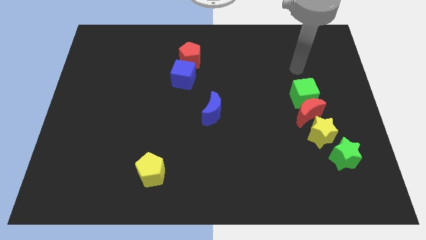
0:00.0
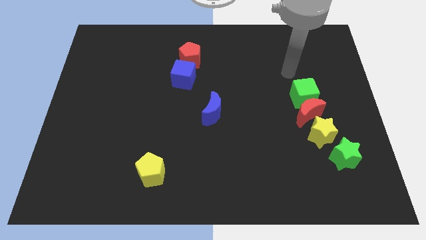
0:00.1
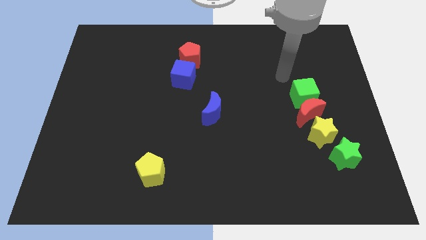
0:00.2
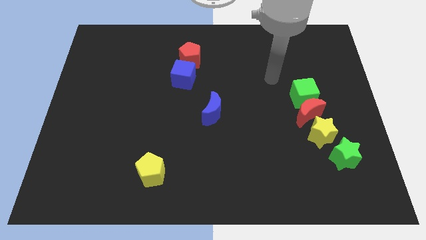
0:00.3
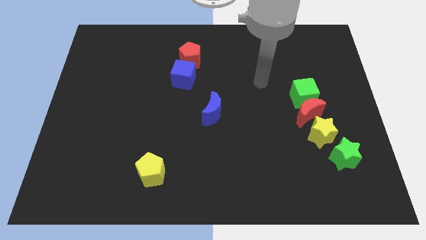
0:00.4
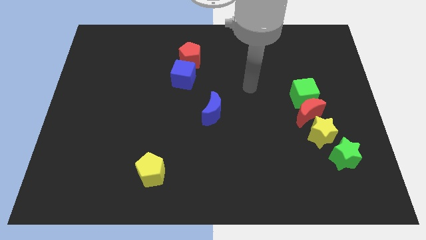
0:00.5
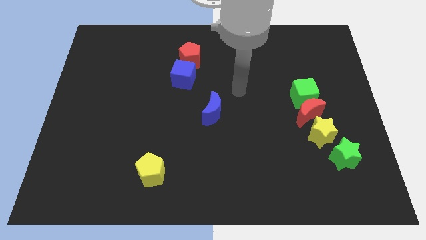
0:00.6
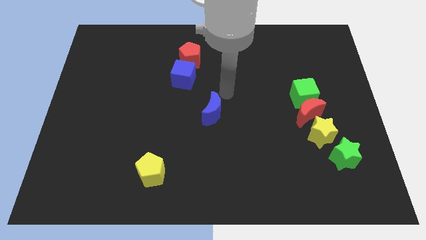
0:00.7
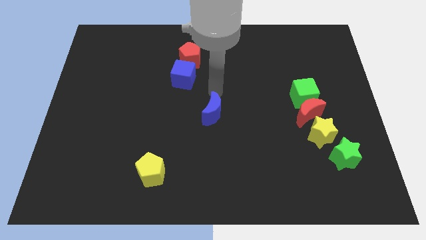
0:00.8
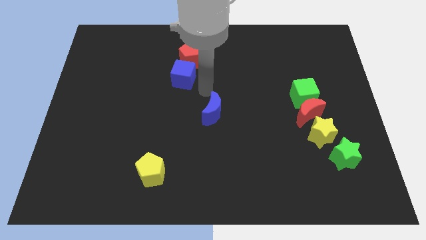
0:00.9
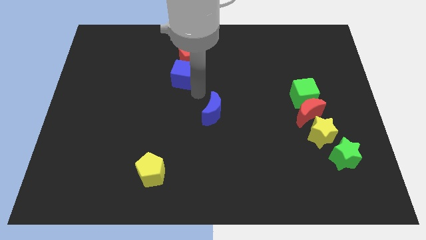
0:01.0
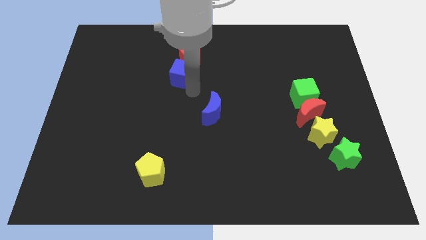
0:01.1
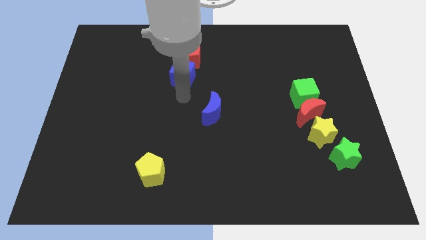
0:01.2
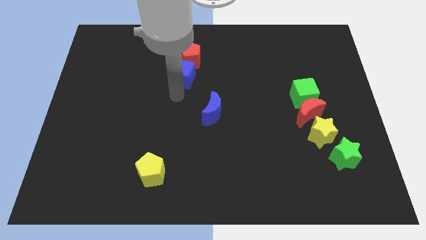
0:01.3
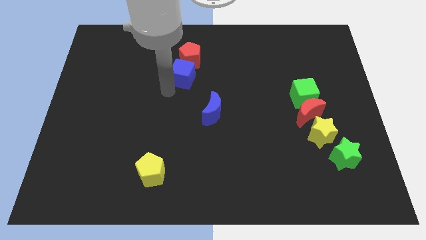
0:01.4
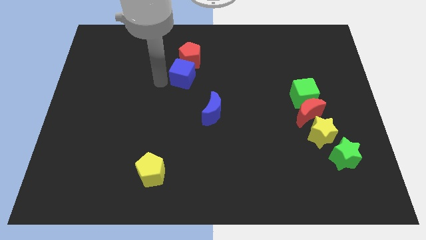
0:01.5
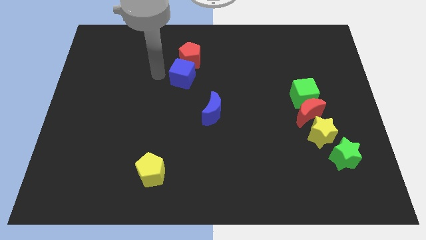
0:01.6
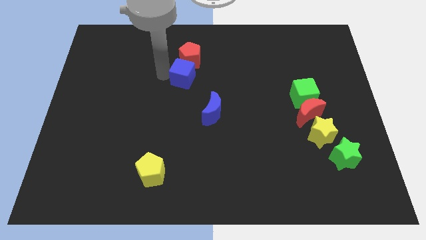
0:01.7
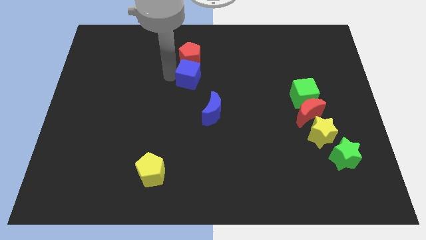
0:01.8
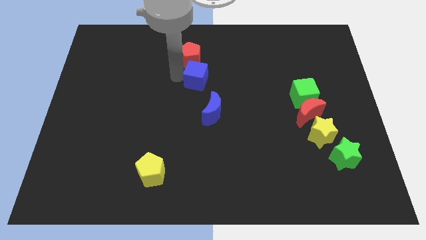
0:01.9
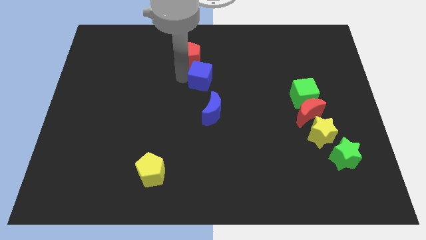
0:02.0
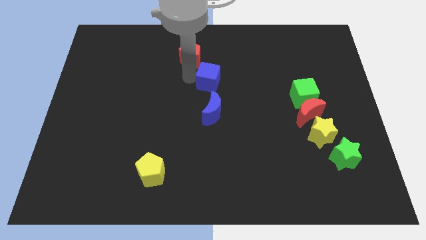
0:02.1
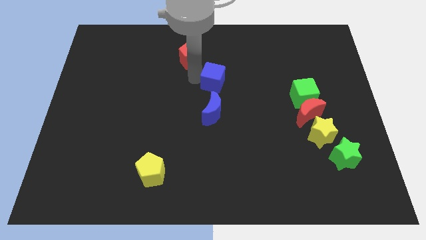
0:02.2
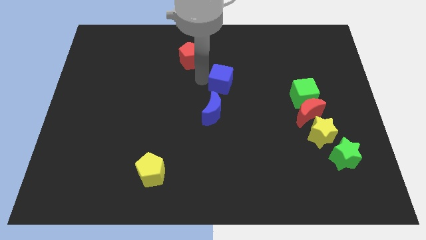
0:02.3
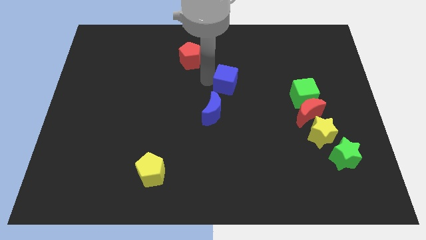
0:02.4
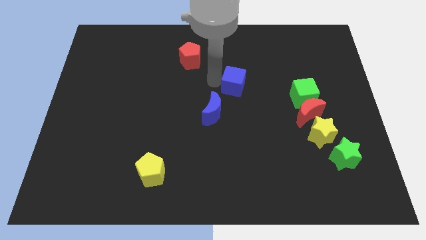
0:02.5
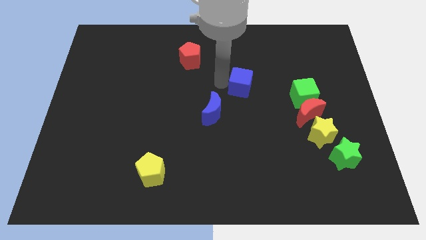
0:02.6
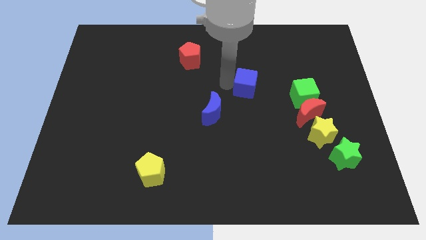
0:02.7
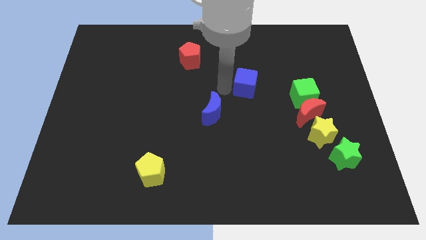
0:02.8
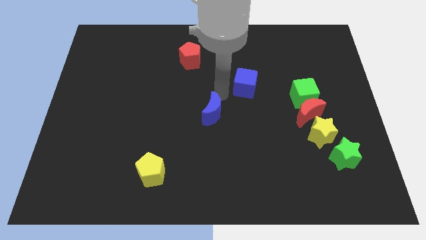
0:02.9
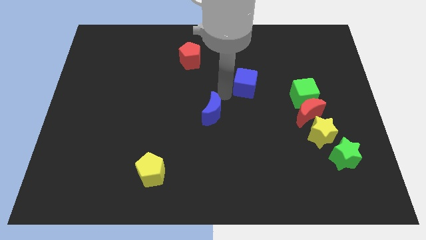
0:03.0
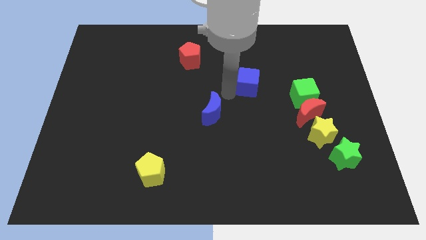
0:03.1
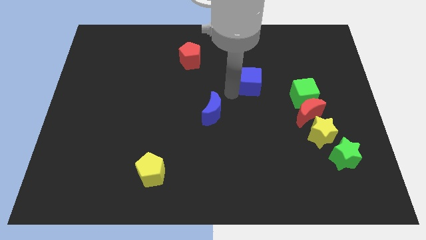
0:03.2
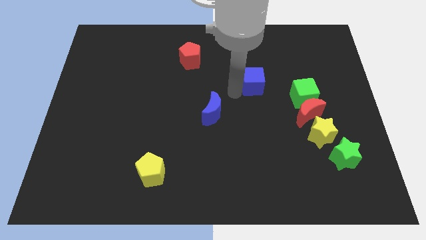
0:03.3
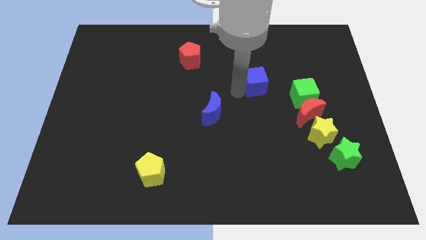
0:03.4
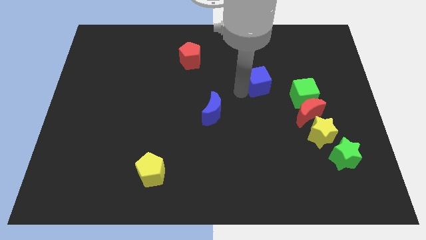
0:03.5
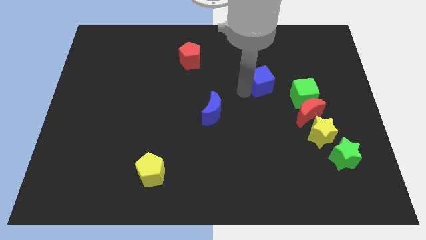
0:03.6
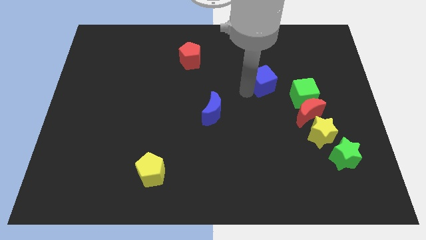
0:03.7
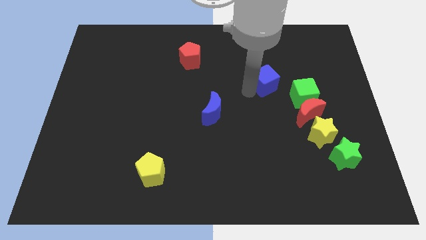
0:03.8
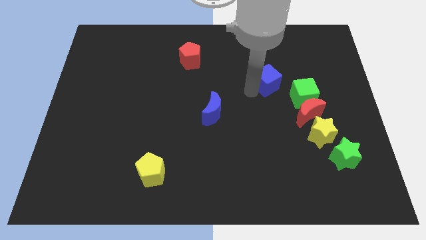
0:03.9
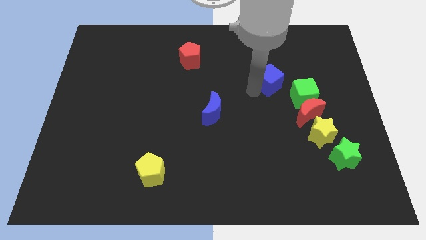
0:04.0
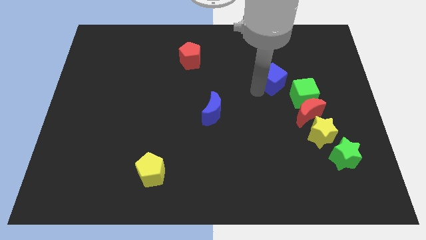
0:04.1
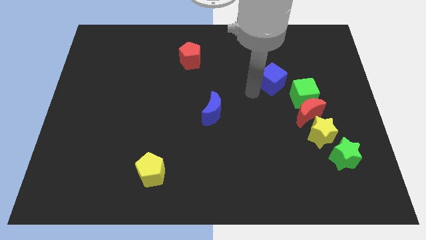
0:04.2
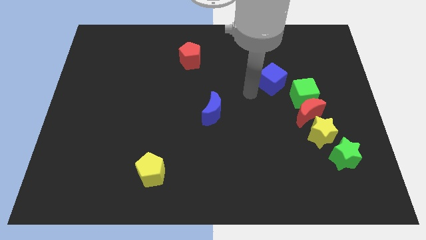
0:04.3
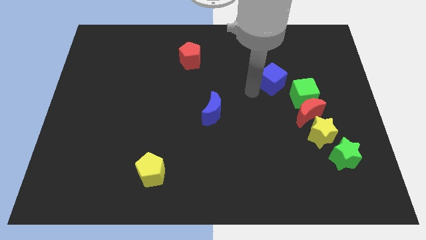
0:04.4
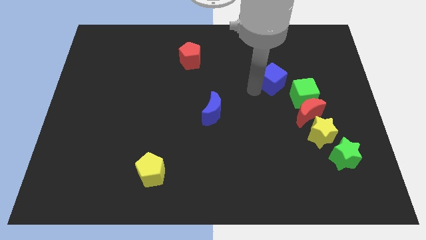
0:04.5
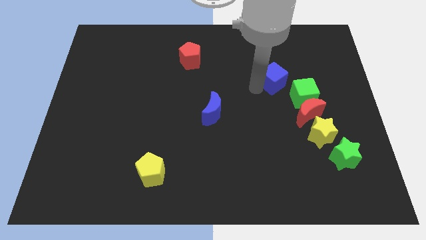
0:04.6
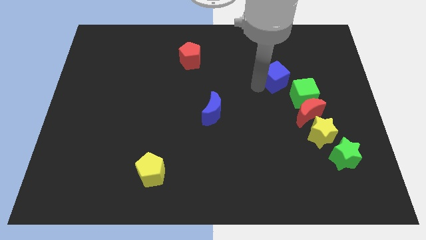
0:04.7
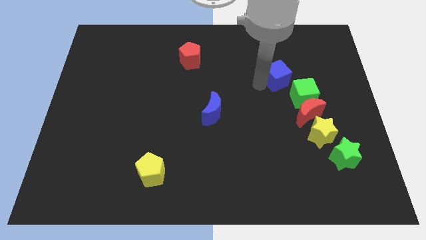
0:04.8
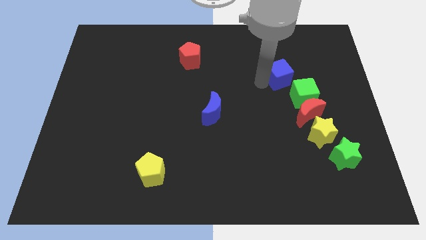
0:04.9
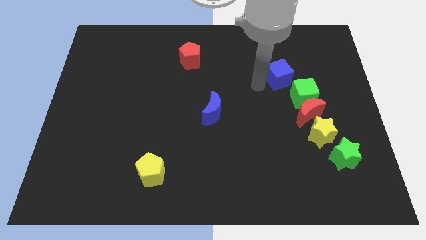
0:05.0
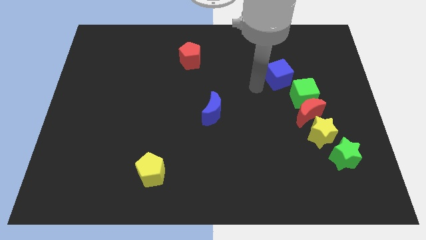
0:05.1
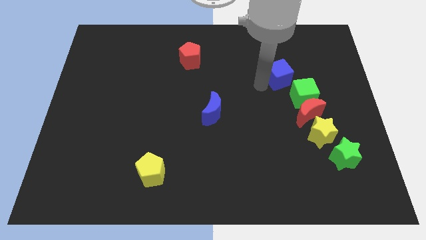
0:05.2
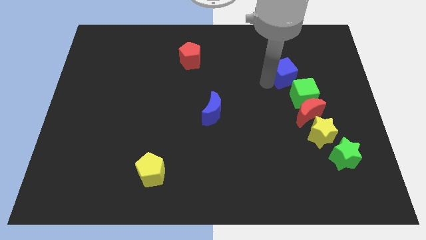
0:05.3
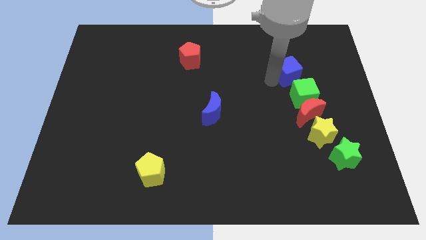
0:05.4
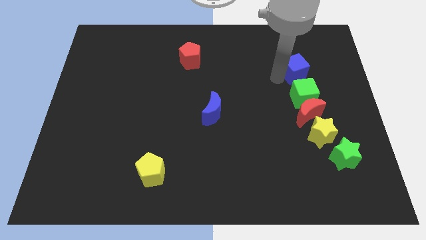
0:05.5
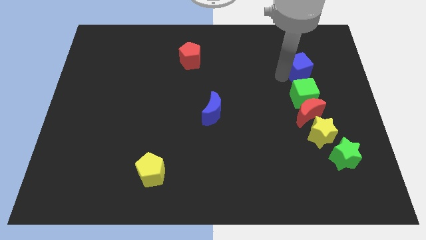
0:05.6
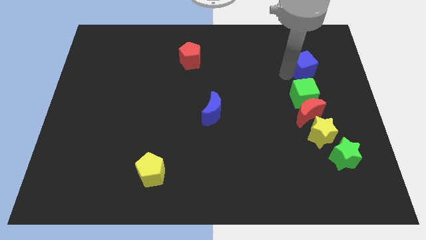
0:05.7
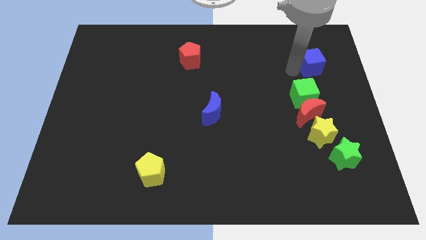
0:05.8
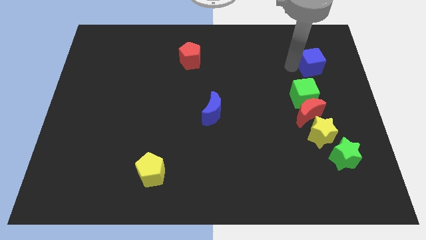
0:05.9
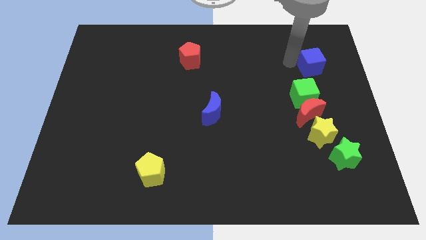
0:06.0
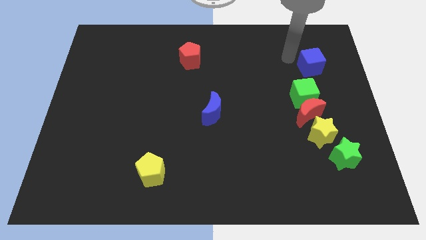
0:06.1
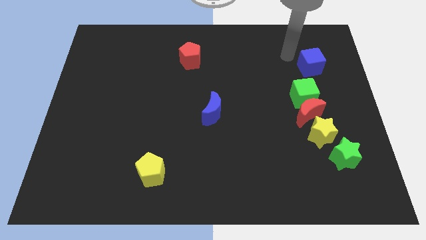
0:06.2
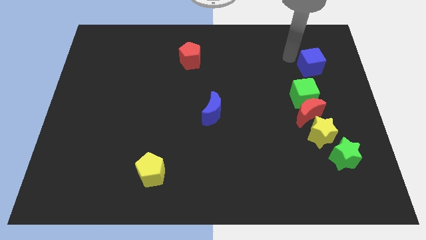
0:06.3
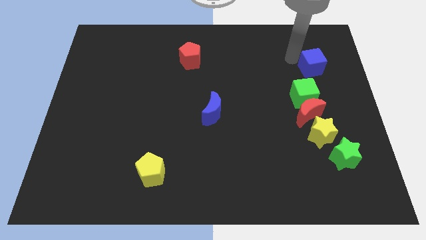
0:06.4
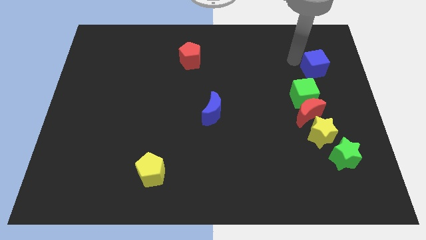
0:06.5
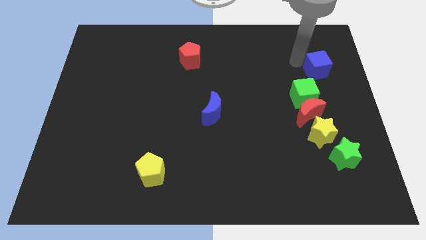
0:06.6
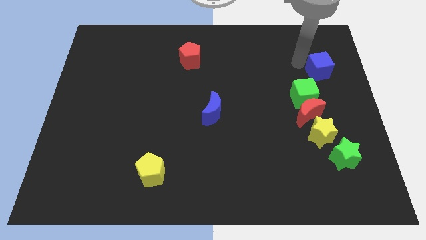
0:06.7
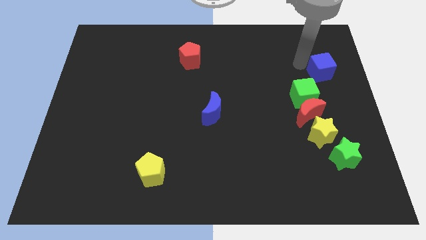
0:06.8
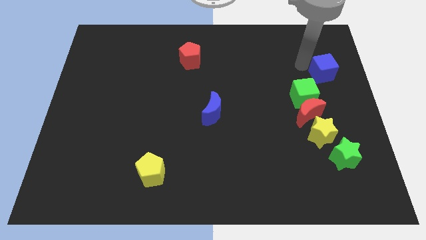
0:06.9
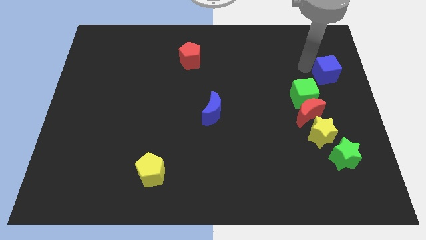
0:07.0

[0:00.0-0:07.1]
put the blue cube to the right side
